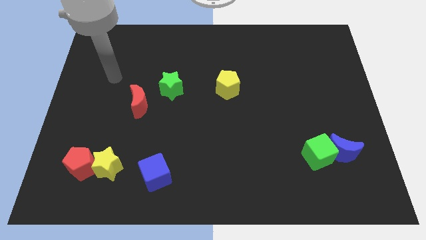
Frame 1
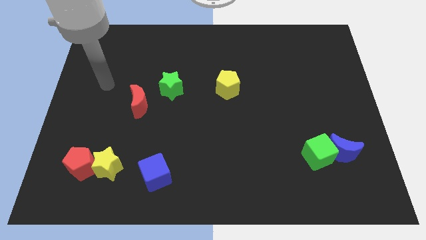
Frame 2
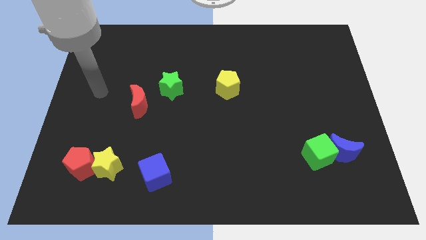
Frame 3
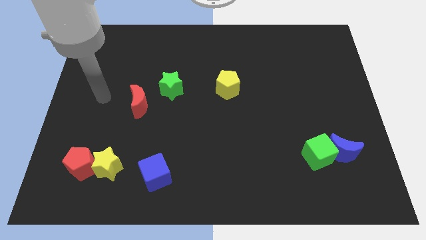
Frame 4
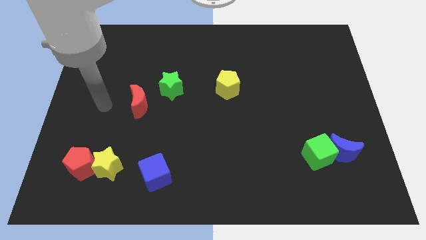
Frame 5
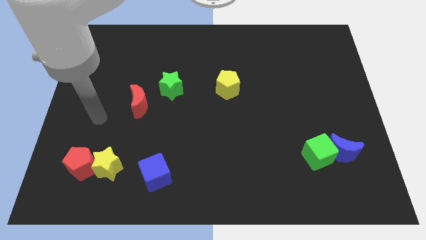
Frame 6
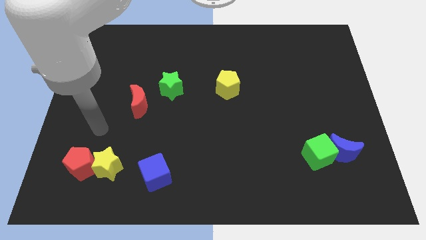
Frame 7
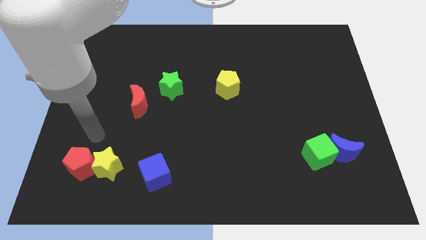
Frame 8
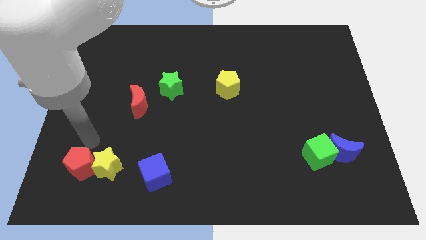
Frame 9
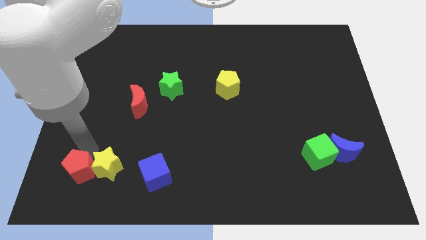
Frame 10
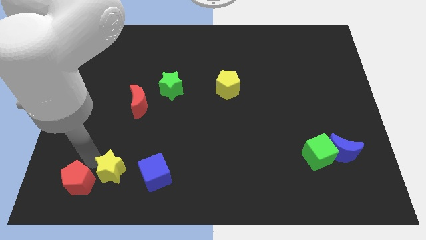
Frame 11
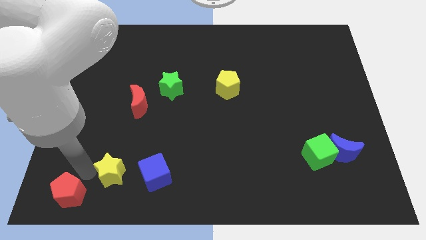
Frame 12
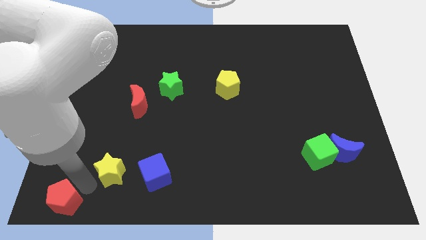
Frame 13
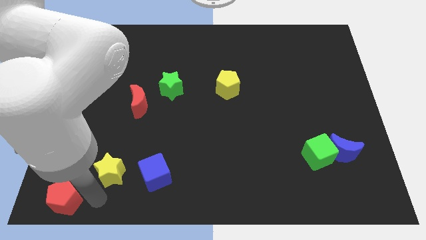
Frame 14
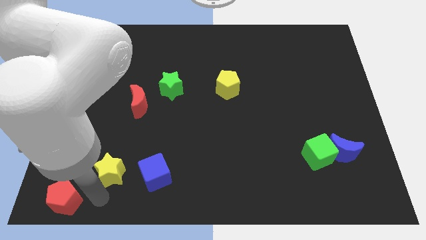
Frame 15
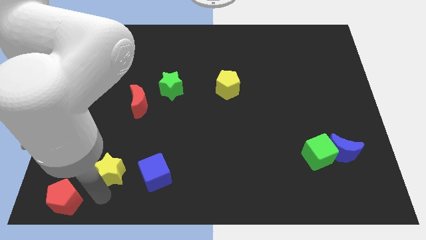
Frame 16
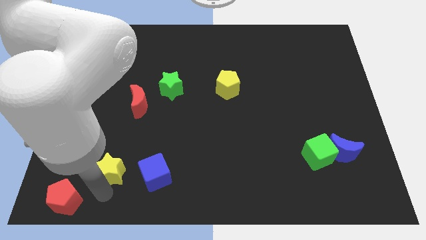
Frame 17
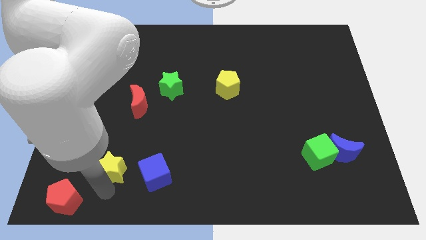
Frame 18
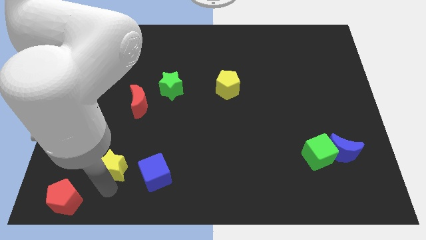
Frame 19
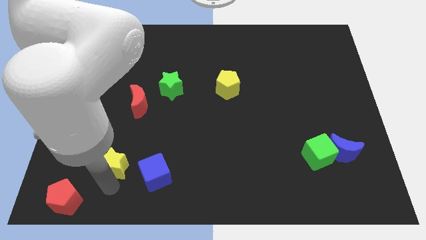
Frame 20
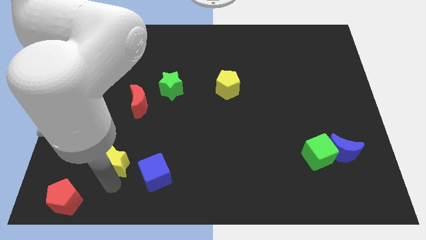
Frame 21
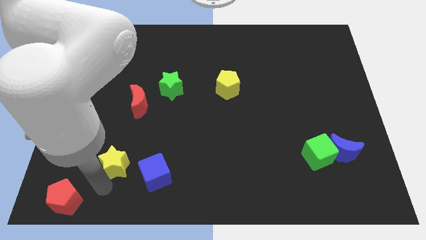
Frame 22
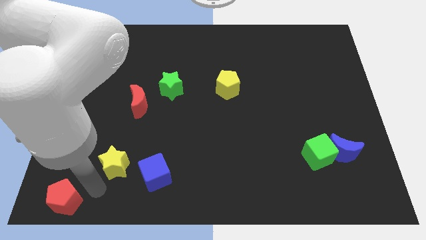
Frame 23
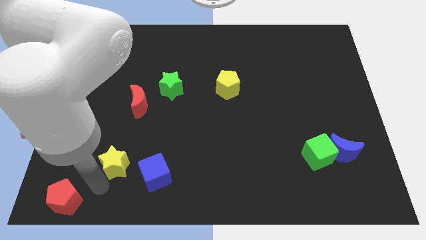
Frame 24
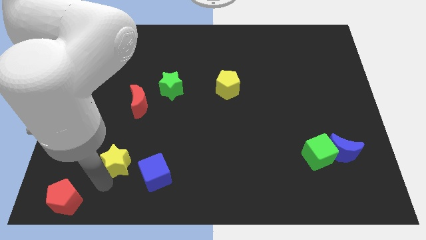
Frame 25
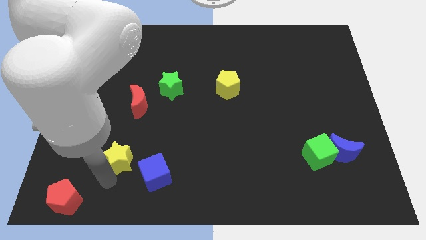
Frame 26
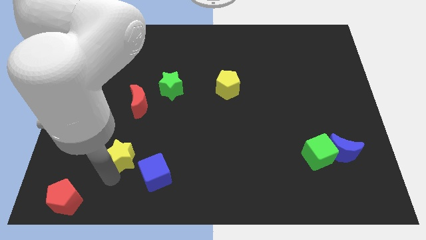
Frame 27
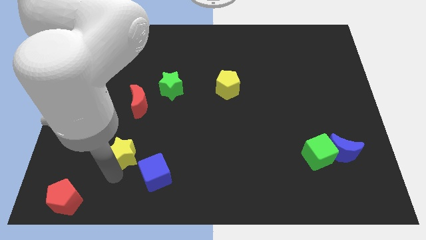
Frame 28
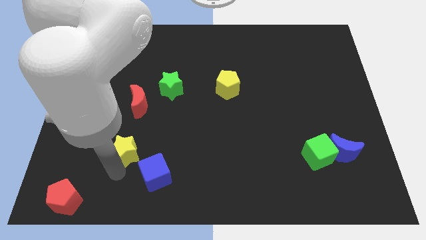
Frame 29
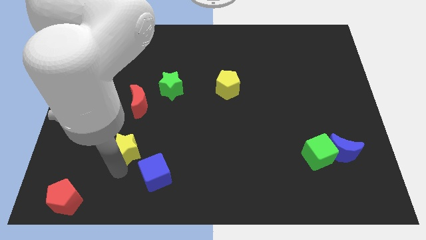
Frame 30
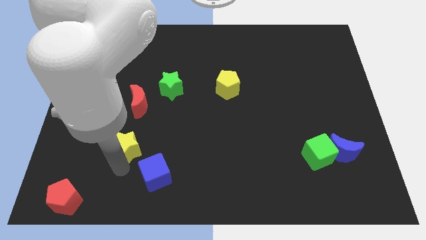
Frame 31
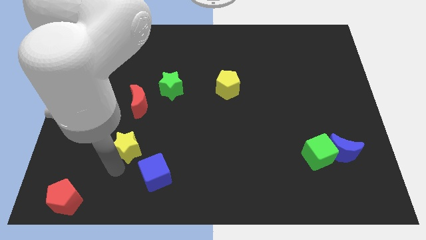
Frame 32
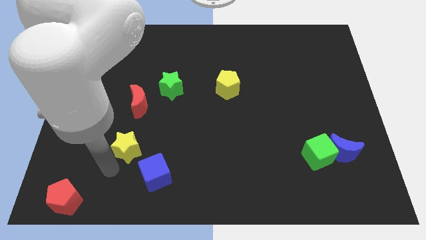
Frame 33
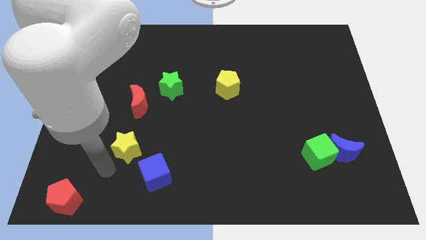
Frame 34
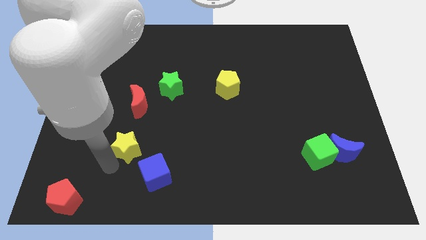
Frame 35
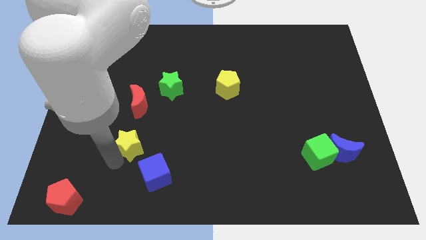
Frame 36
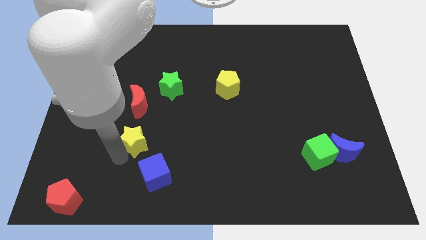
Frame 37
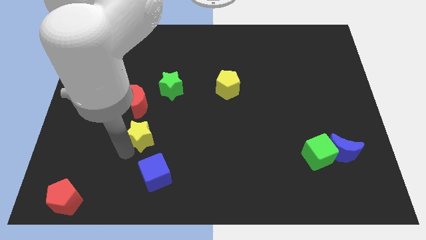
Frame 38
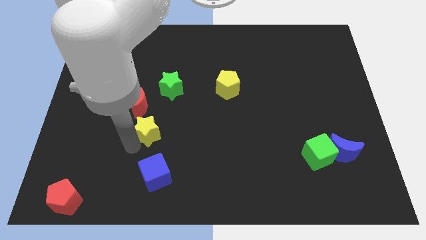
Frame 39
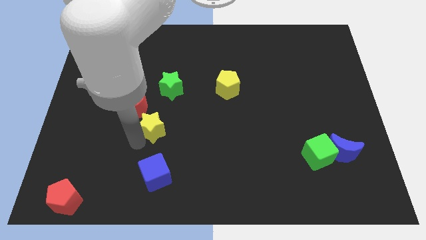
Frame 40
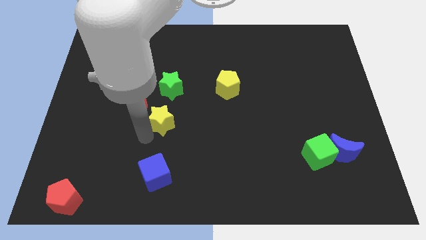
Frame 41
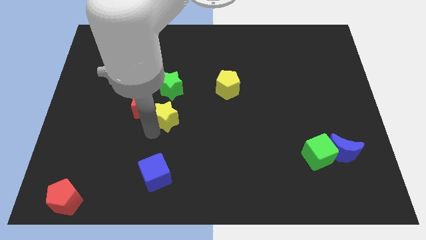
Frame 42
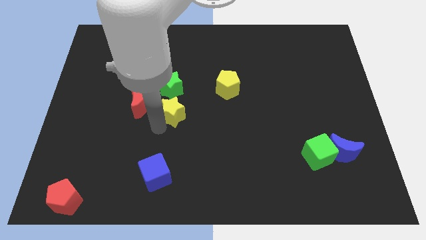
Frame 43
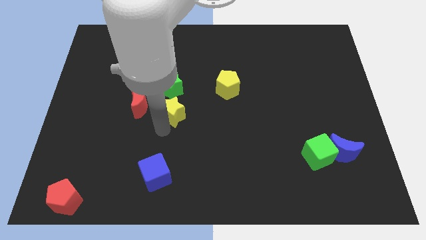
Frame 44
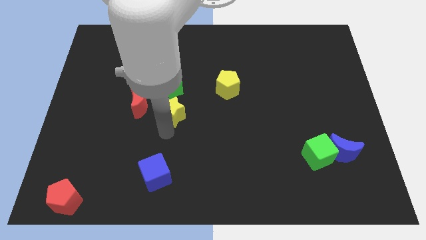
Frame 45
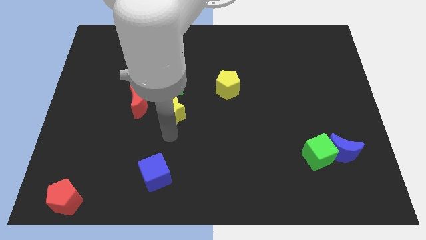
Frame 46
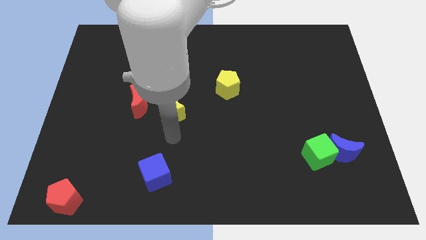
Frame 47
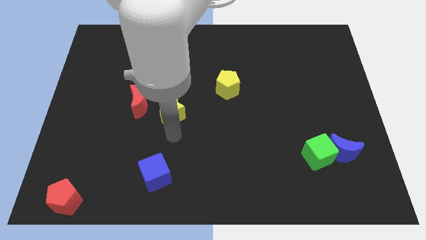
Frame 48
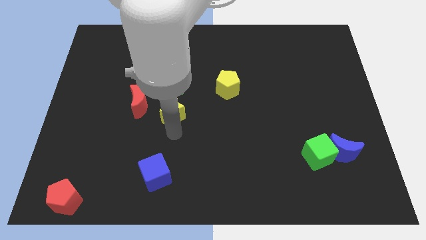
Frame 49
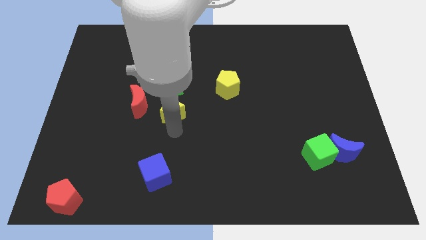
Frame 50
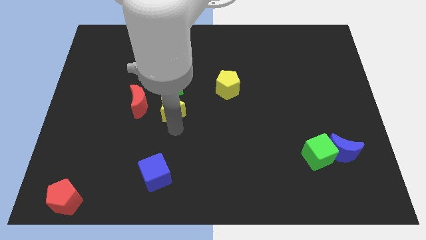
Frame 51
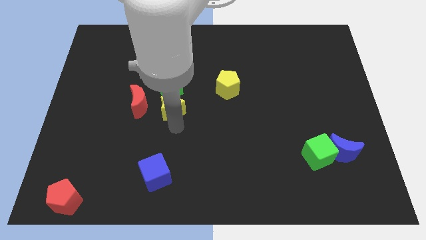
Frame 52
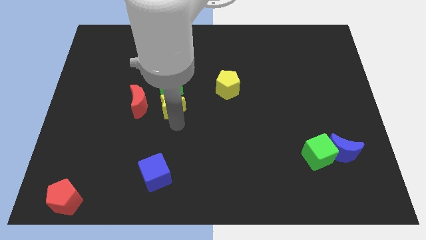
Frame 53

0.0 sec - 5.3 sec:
slide the yellow star next to the green star
